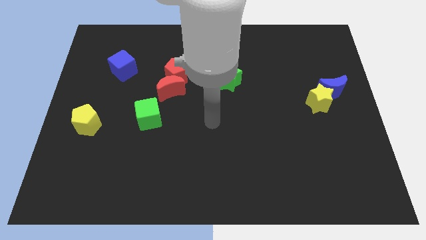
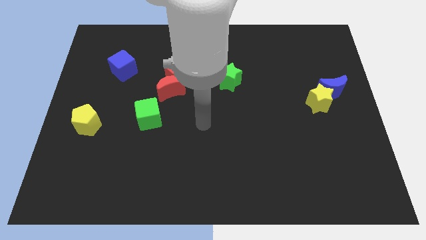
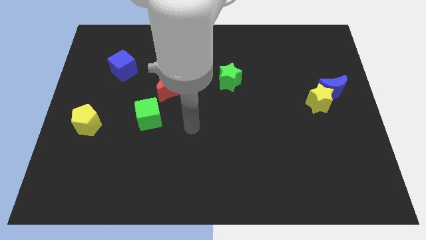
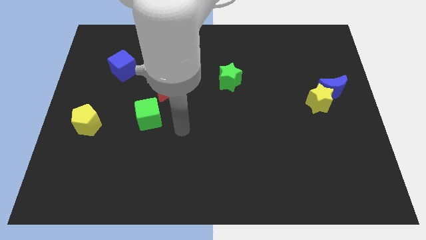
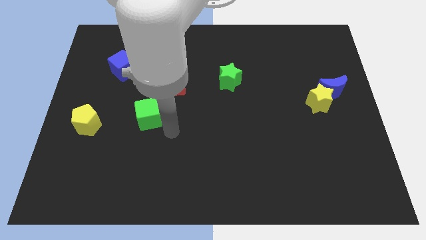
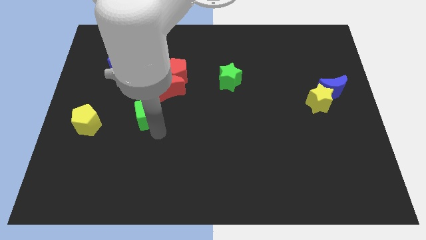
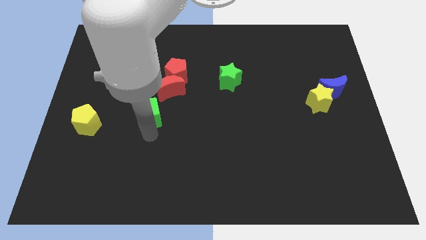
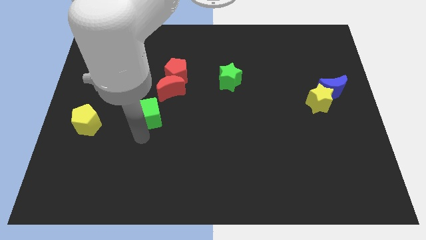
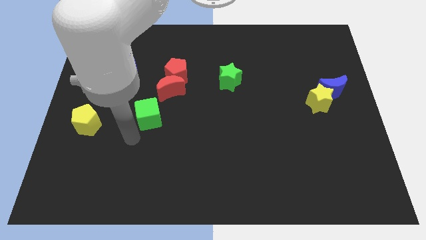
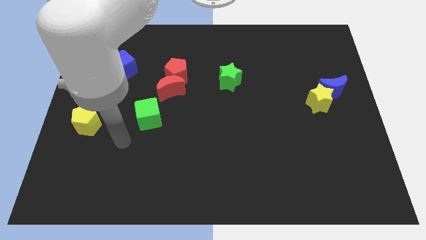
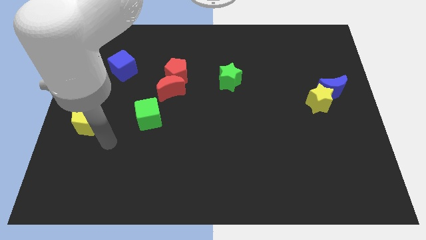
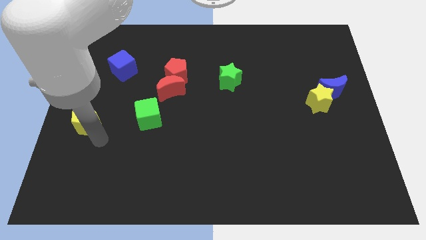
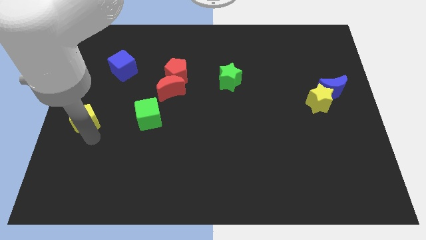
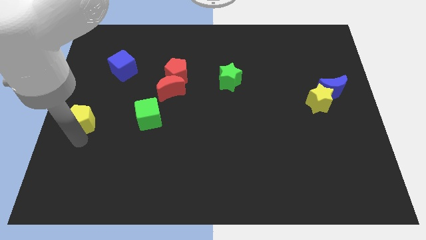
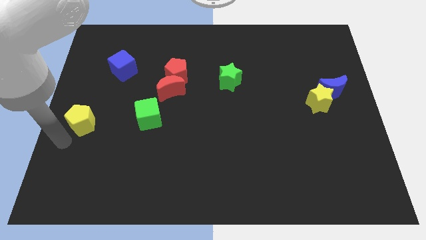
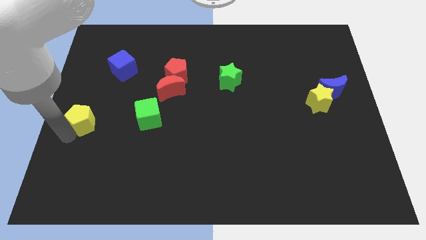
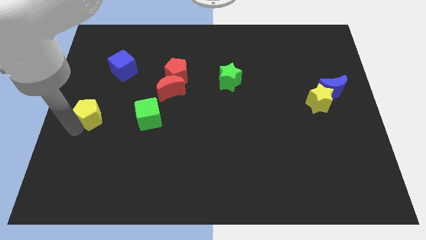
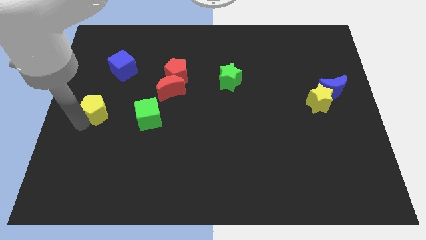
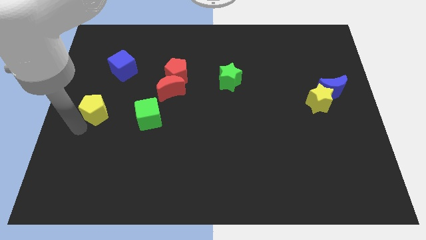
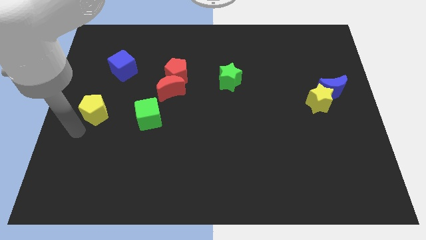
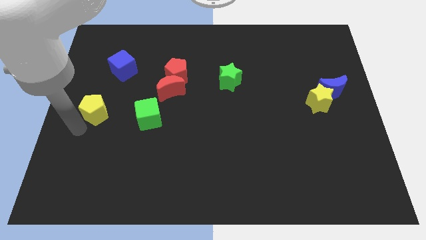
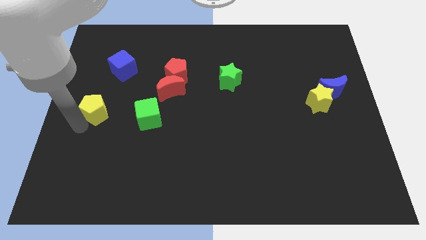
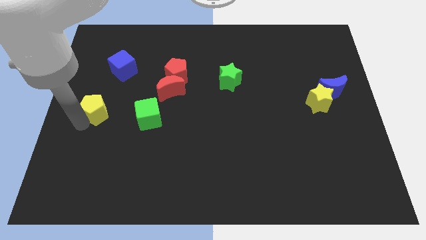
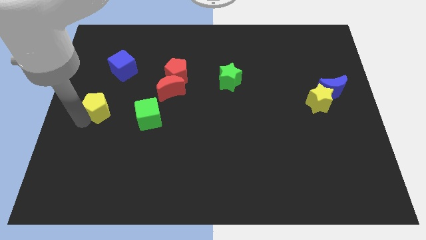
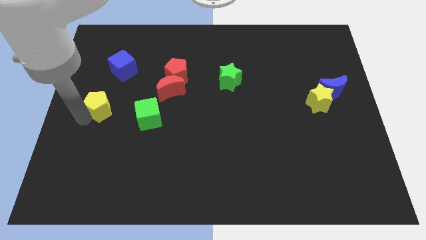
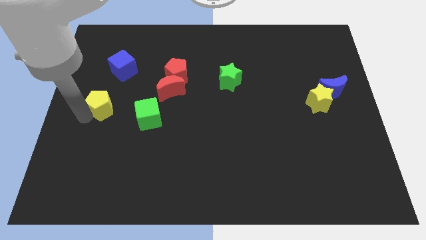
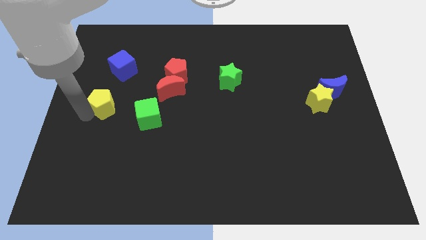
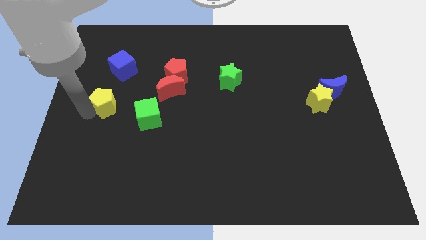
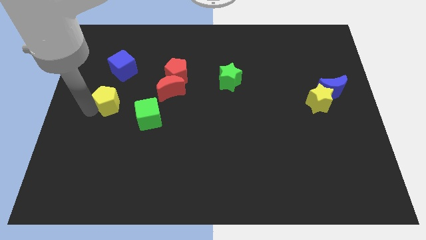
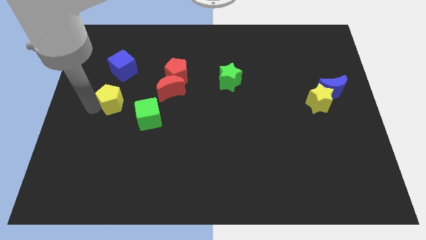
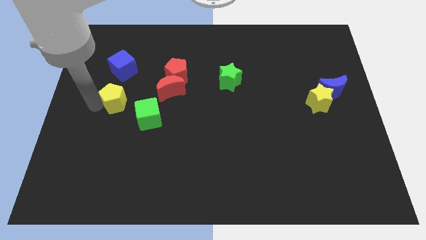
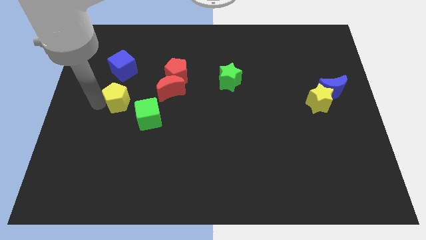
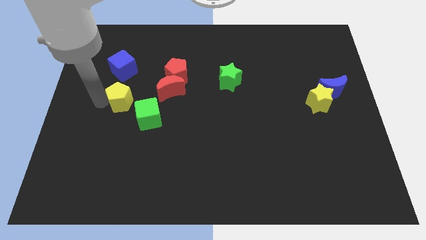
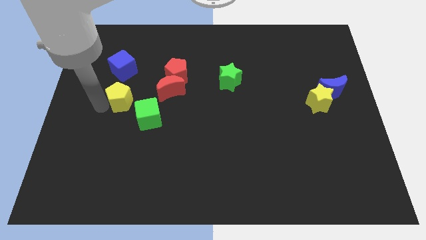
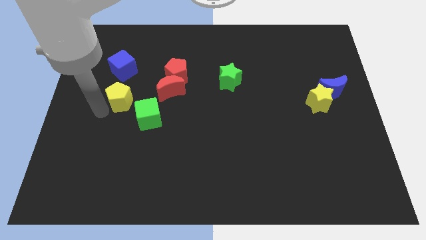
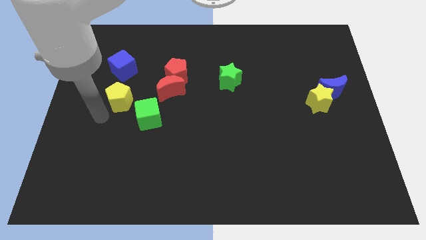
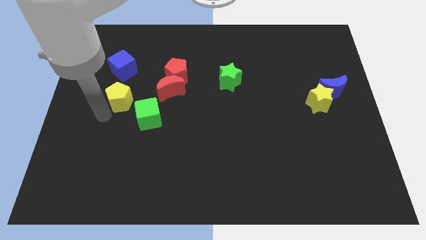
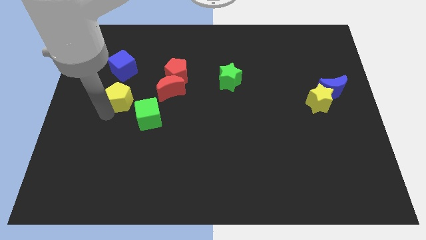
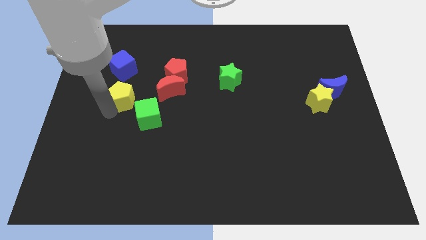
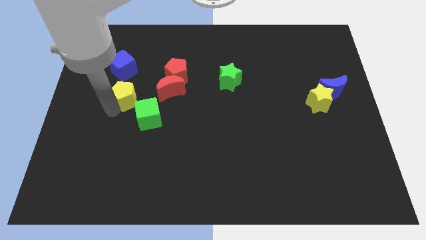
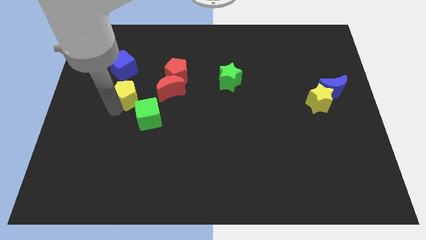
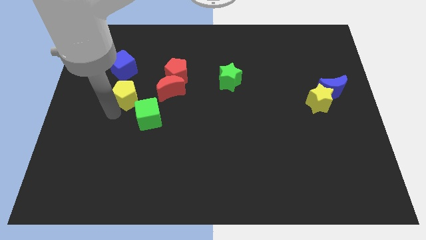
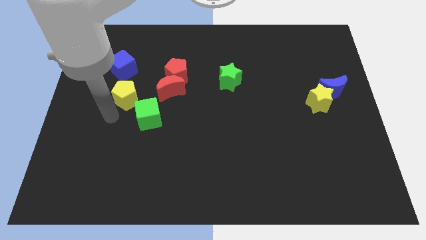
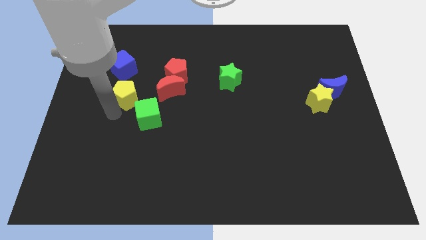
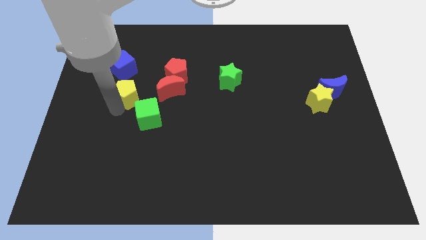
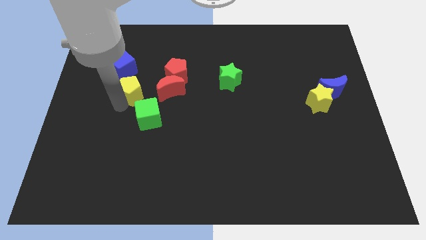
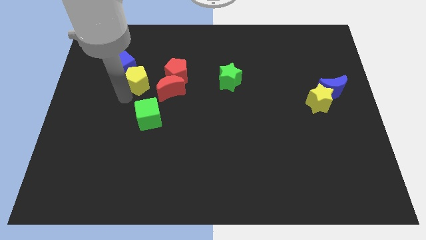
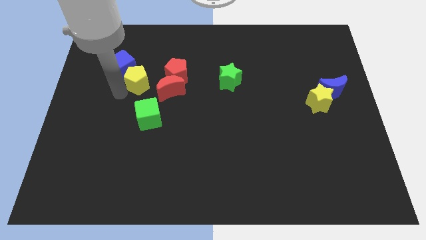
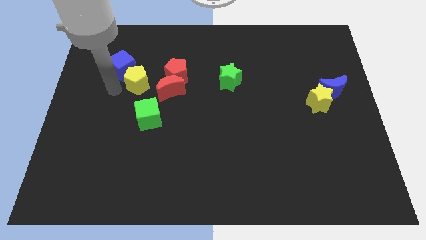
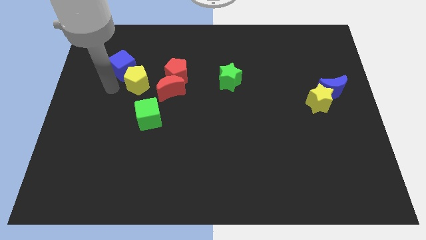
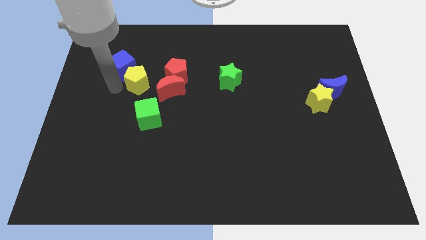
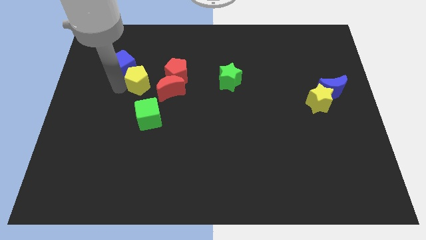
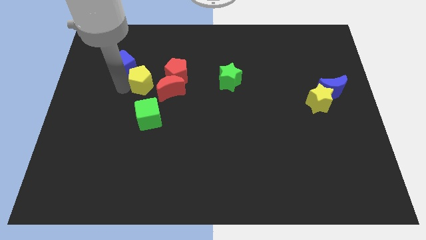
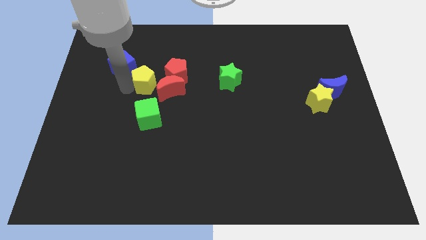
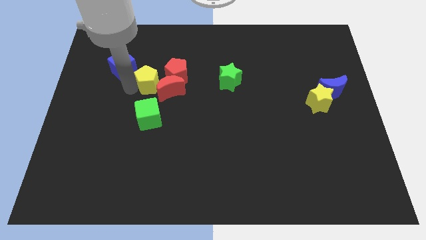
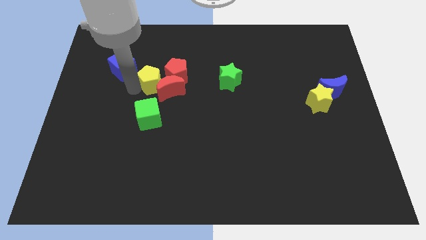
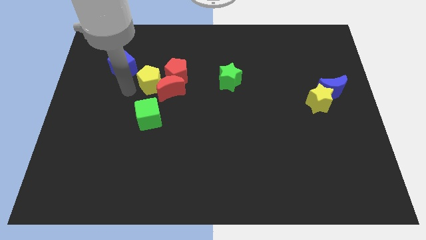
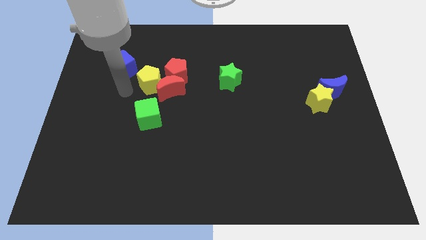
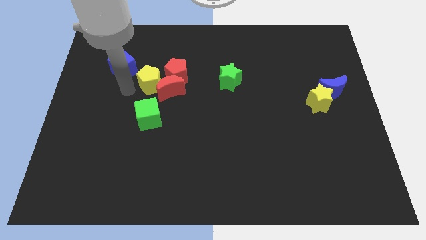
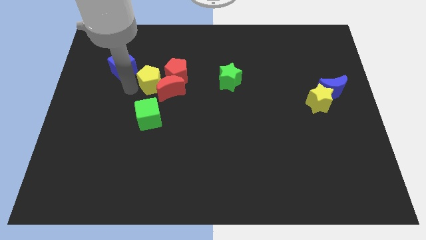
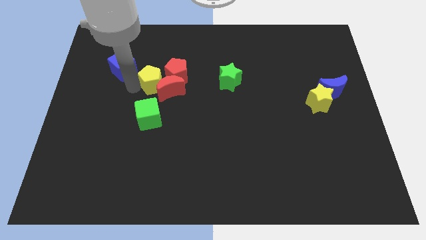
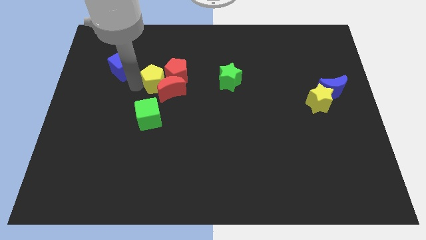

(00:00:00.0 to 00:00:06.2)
move the yellow pentagon to the red pentagon
